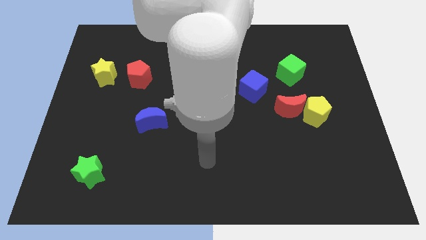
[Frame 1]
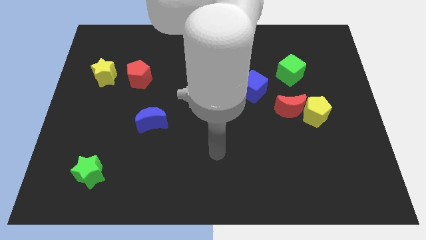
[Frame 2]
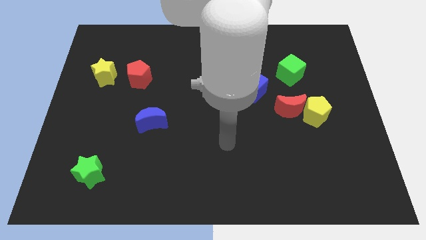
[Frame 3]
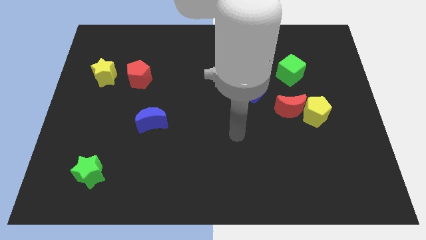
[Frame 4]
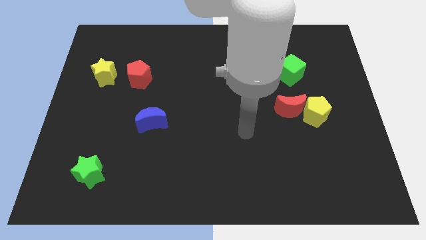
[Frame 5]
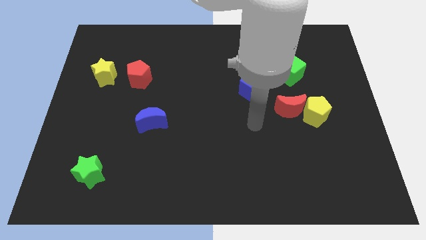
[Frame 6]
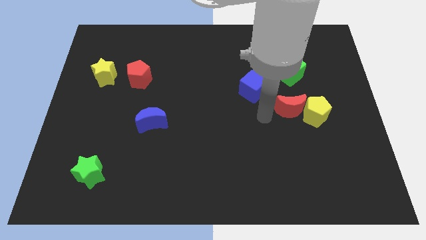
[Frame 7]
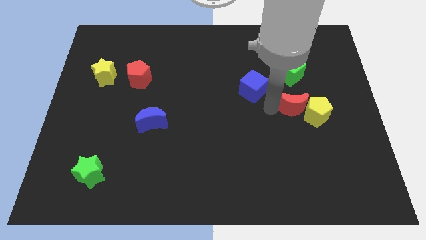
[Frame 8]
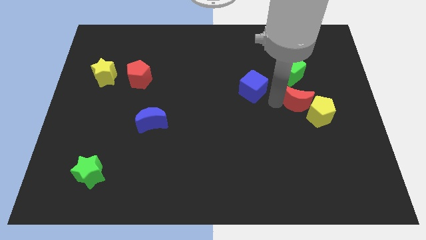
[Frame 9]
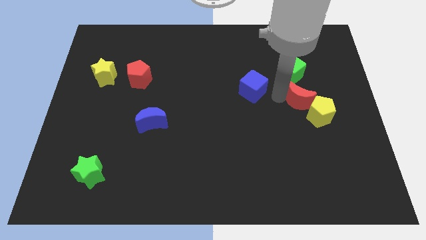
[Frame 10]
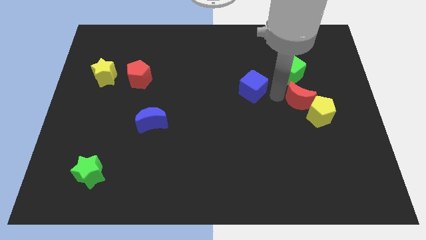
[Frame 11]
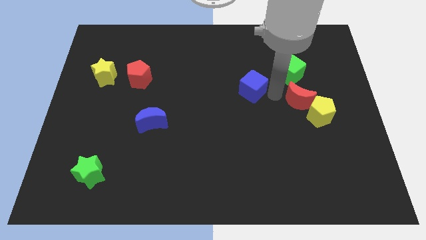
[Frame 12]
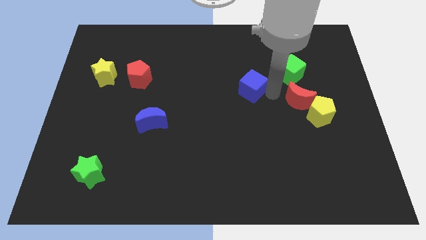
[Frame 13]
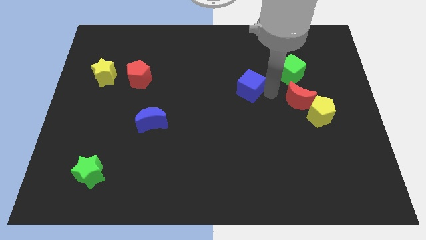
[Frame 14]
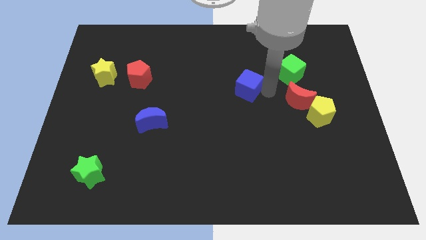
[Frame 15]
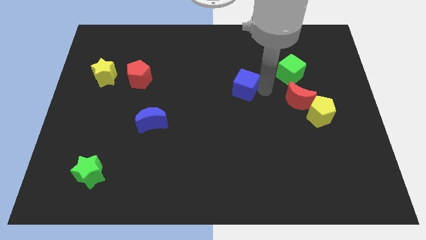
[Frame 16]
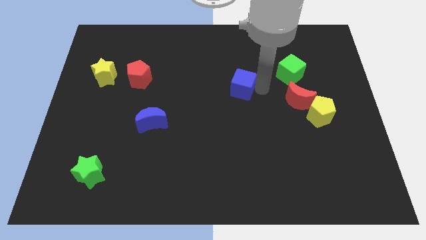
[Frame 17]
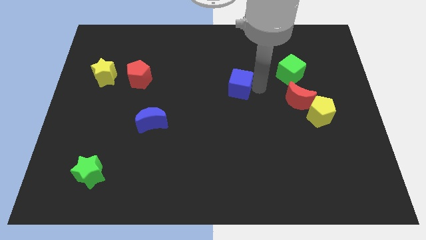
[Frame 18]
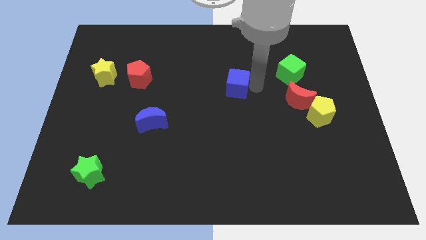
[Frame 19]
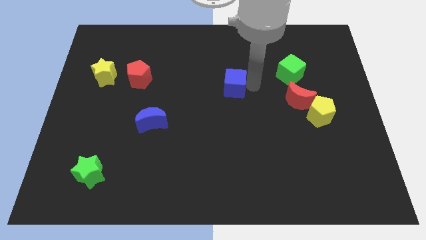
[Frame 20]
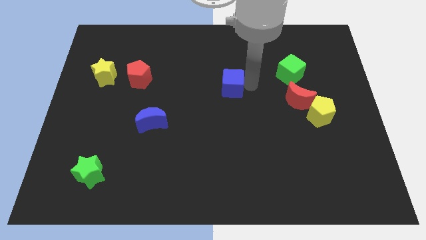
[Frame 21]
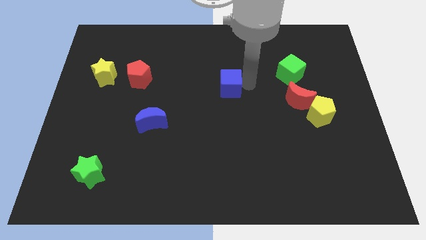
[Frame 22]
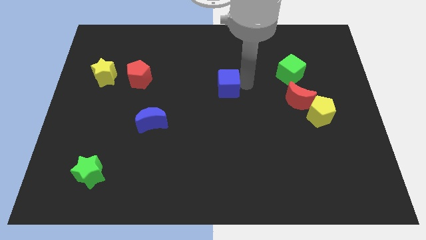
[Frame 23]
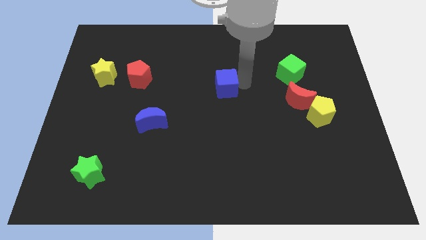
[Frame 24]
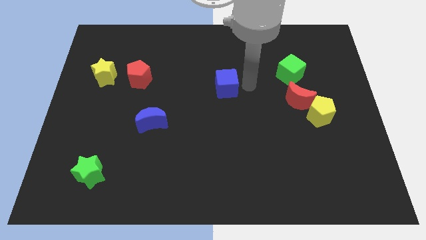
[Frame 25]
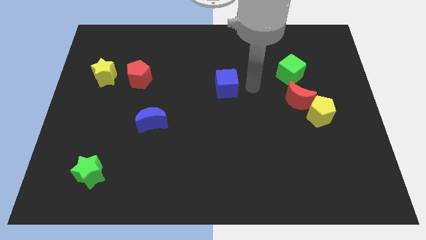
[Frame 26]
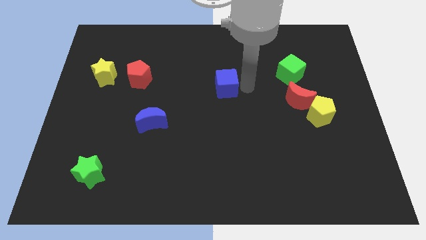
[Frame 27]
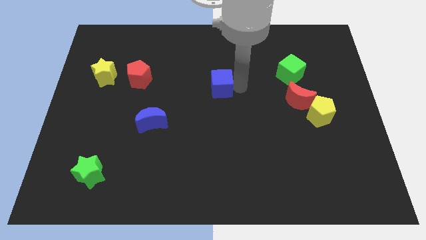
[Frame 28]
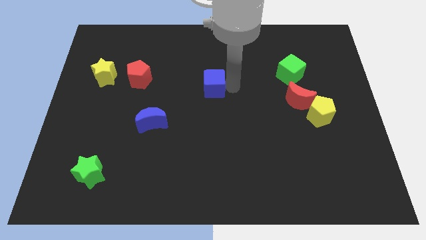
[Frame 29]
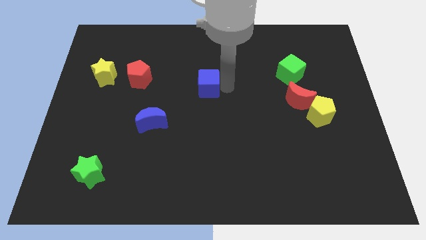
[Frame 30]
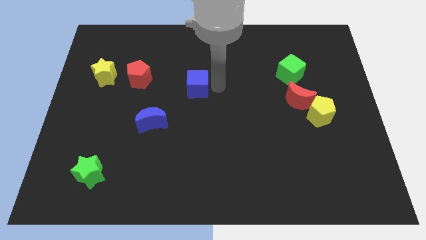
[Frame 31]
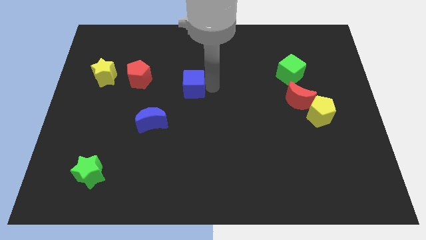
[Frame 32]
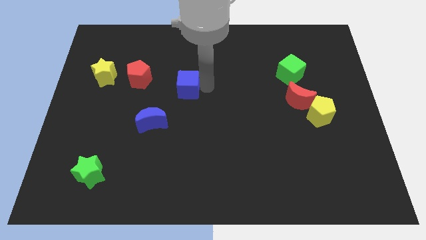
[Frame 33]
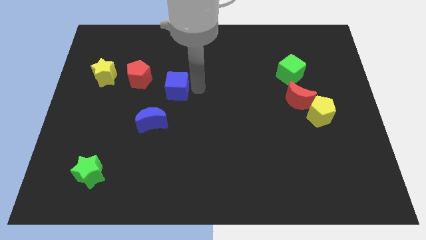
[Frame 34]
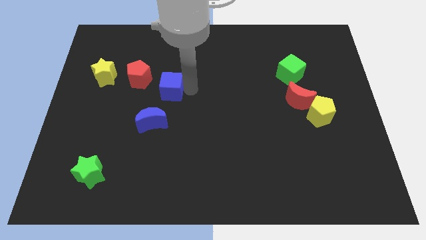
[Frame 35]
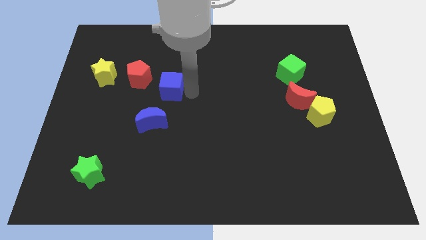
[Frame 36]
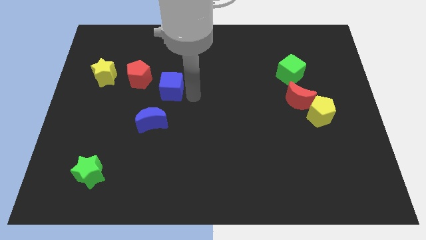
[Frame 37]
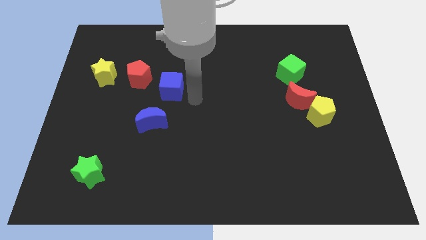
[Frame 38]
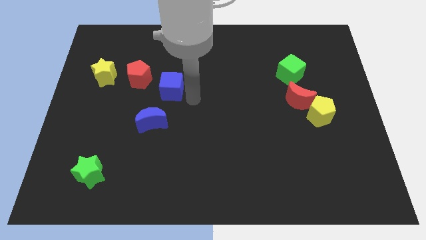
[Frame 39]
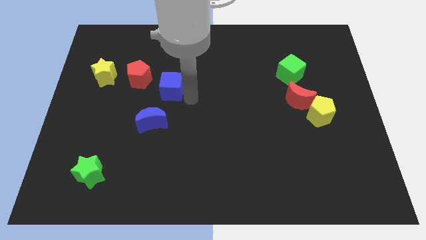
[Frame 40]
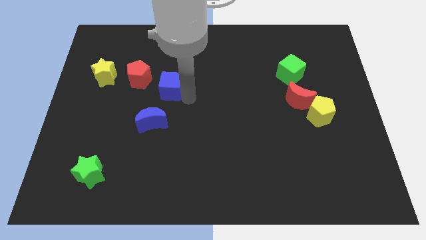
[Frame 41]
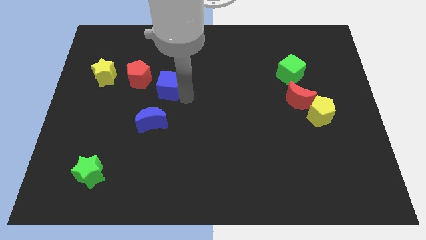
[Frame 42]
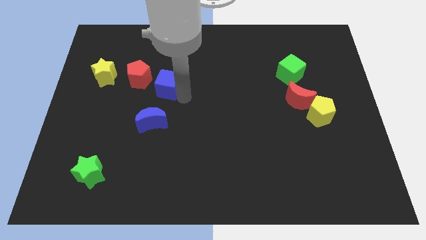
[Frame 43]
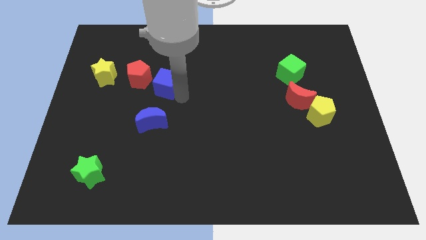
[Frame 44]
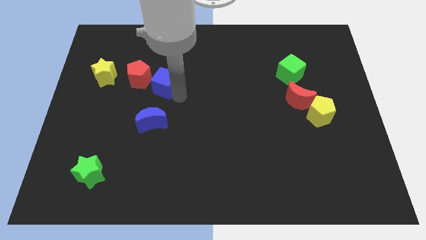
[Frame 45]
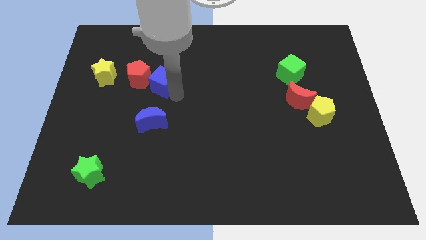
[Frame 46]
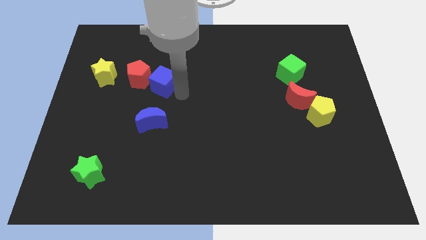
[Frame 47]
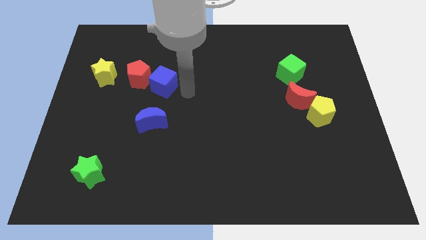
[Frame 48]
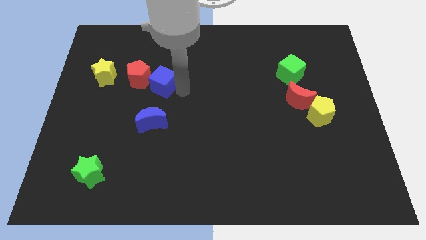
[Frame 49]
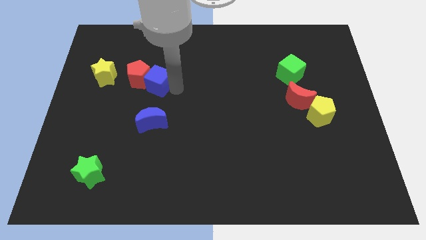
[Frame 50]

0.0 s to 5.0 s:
move the blue cube towards the red pentagon

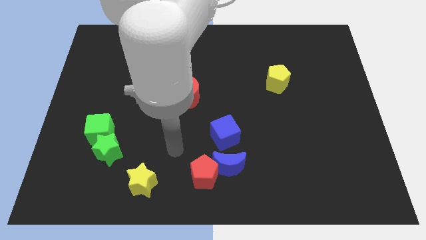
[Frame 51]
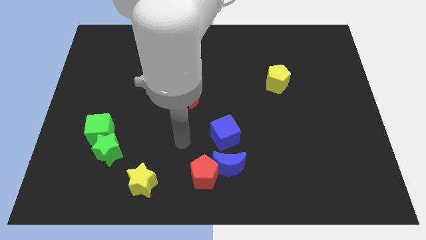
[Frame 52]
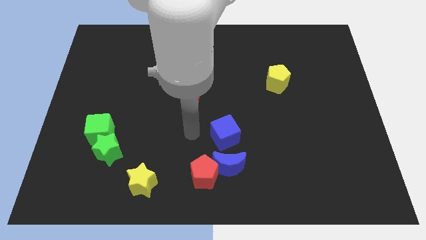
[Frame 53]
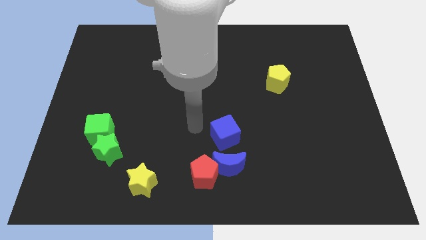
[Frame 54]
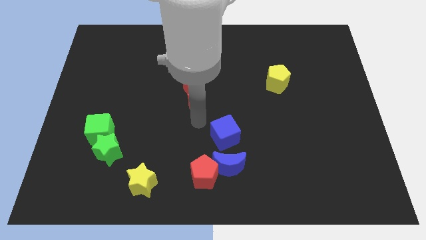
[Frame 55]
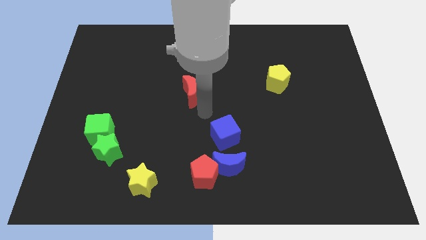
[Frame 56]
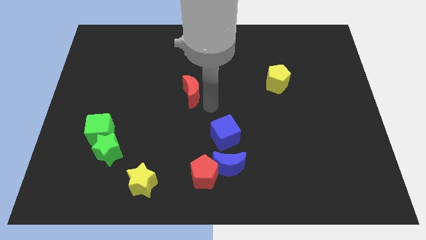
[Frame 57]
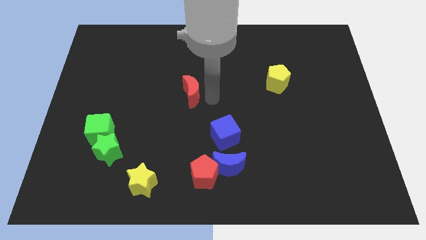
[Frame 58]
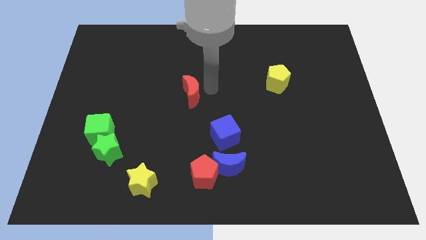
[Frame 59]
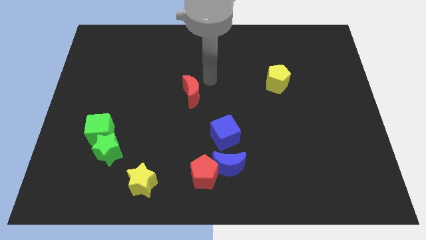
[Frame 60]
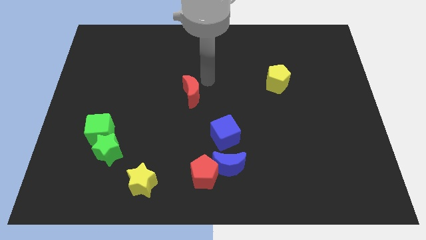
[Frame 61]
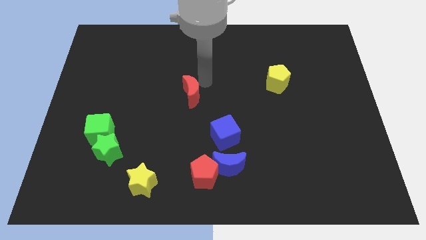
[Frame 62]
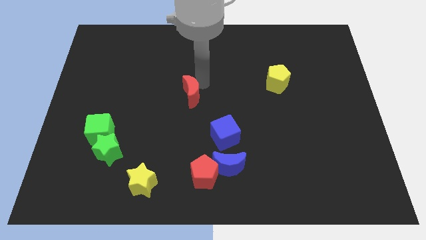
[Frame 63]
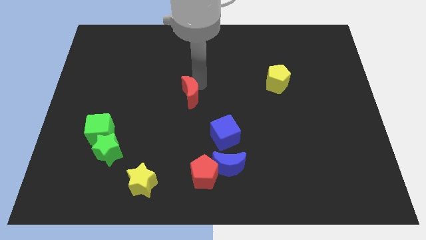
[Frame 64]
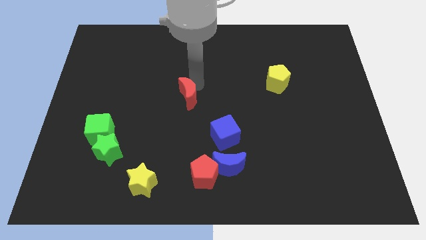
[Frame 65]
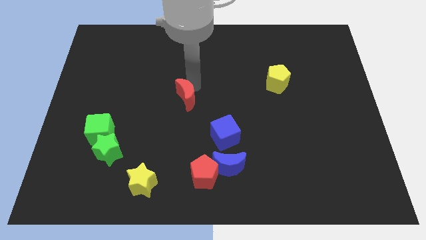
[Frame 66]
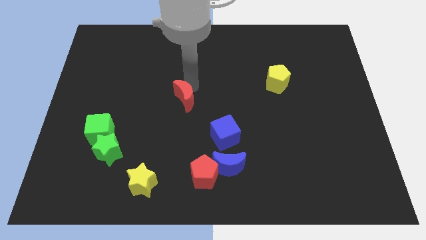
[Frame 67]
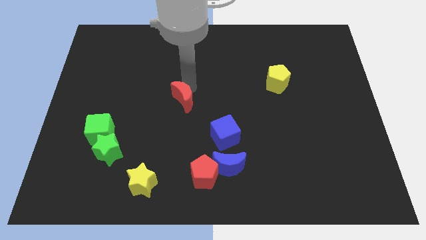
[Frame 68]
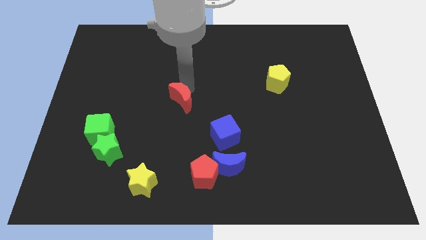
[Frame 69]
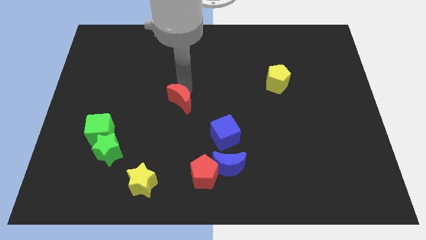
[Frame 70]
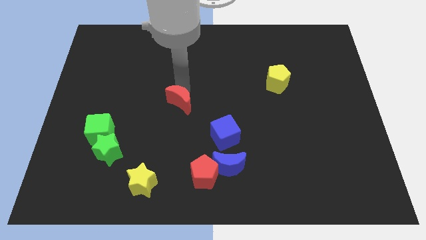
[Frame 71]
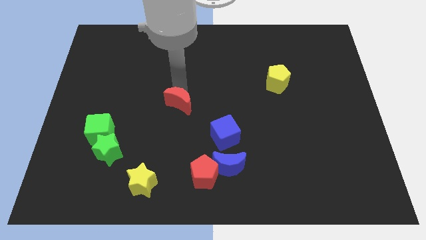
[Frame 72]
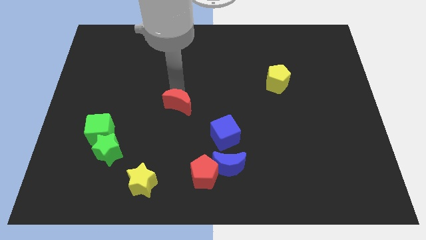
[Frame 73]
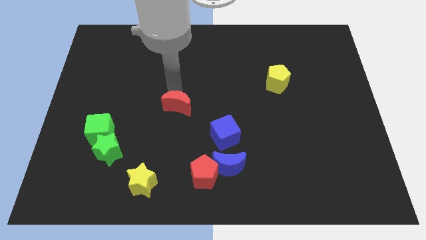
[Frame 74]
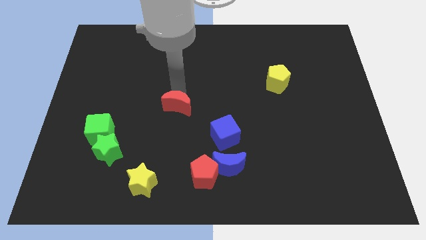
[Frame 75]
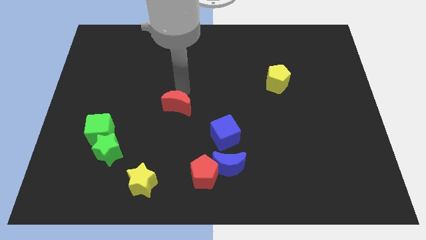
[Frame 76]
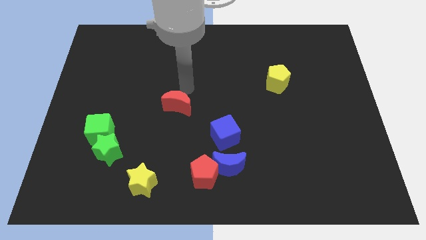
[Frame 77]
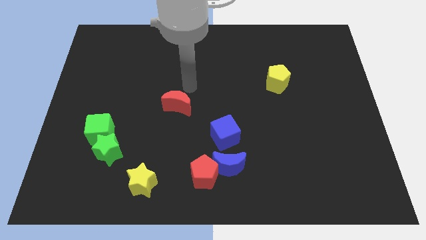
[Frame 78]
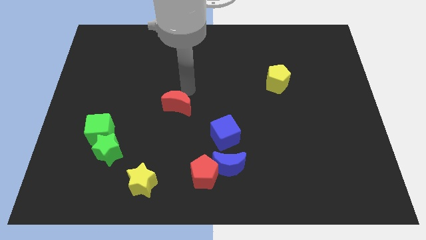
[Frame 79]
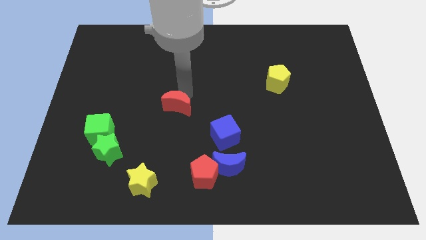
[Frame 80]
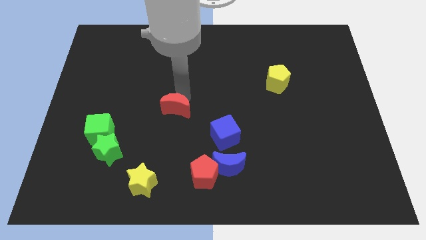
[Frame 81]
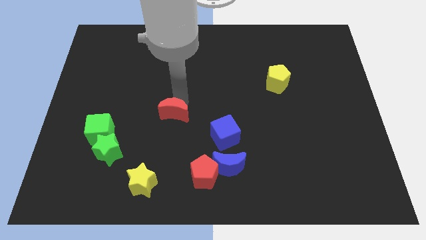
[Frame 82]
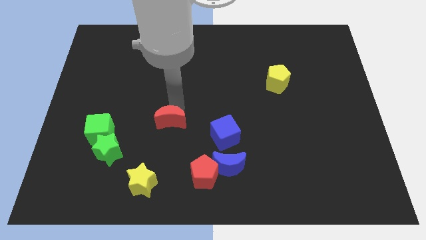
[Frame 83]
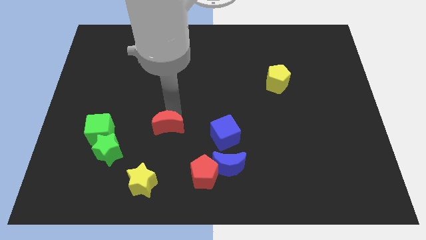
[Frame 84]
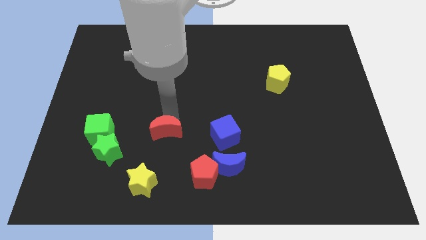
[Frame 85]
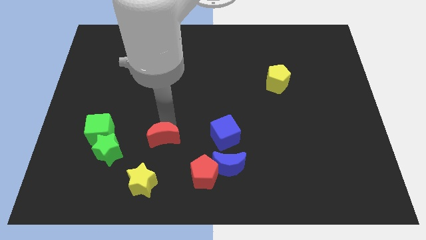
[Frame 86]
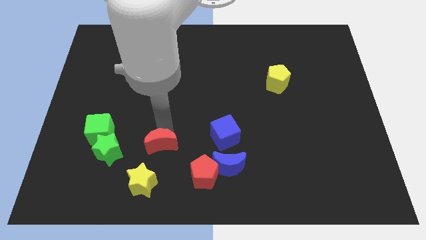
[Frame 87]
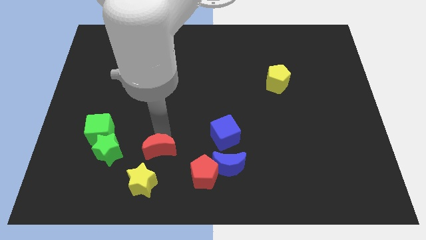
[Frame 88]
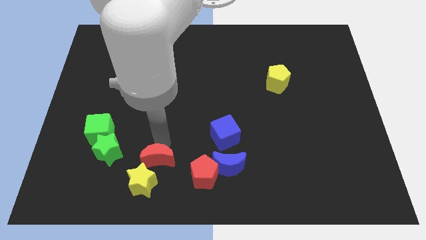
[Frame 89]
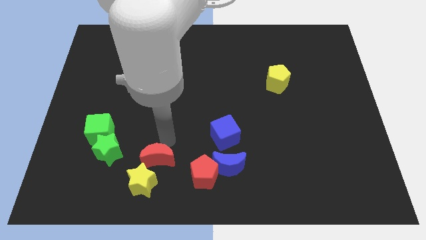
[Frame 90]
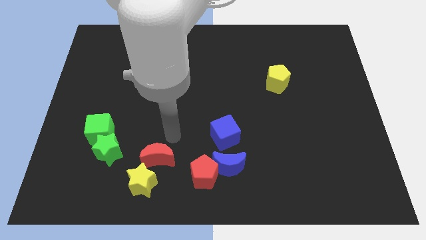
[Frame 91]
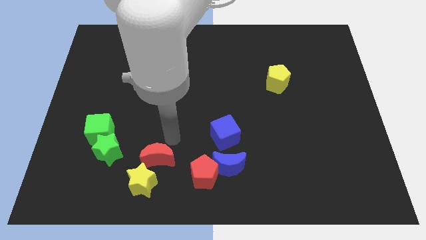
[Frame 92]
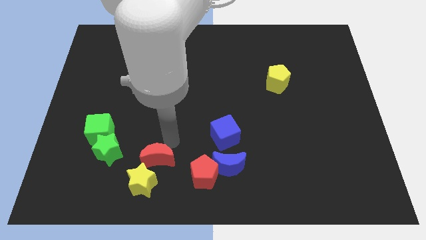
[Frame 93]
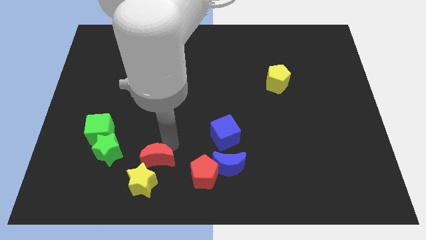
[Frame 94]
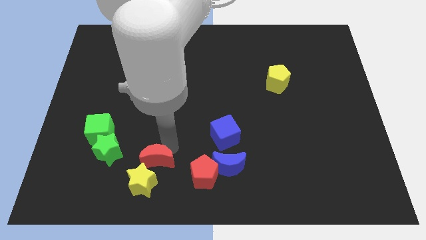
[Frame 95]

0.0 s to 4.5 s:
push the red moon close to the yellow star
